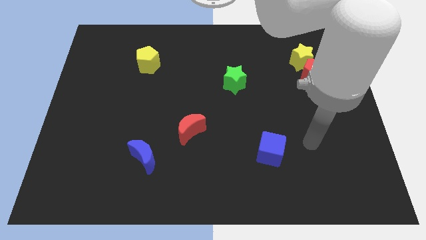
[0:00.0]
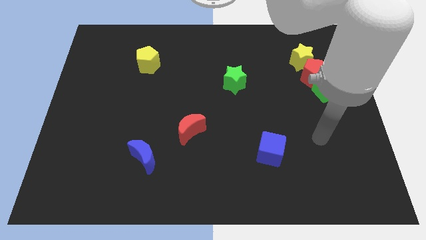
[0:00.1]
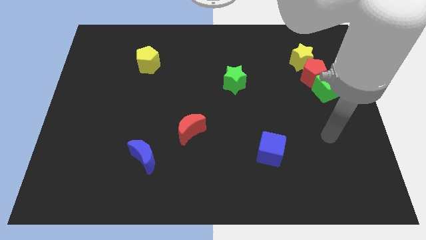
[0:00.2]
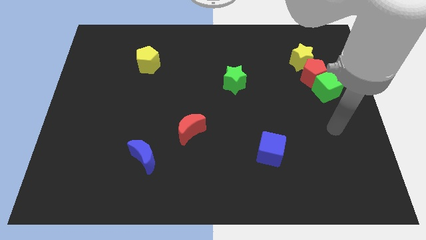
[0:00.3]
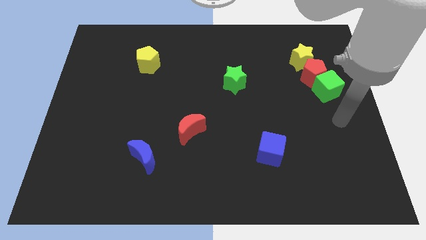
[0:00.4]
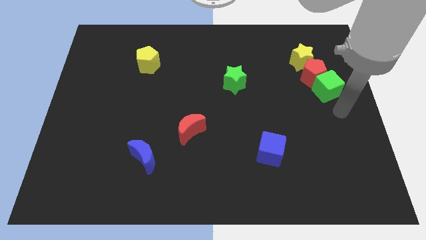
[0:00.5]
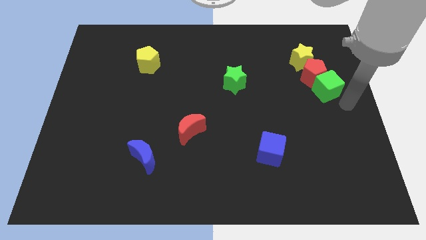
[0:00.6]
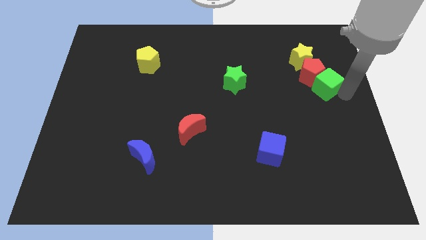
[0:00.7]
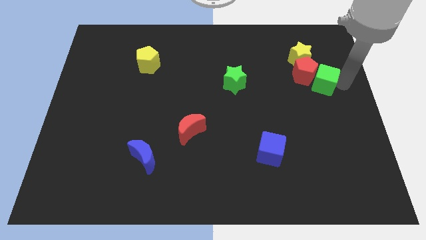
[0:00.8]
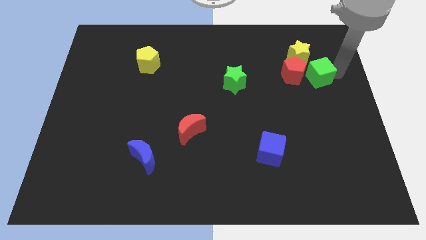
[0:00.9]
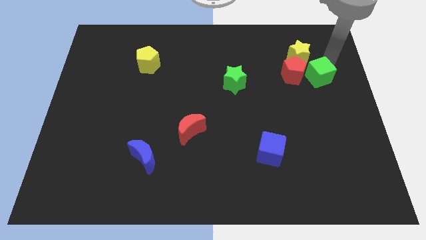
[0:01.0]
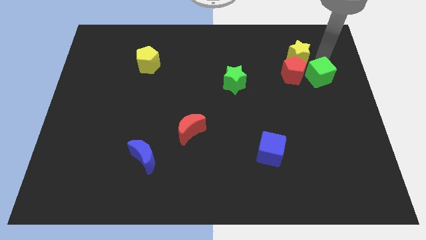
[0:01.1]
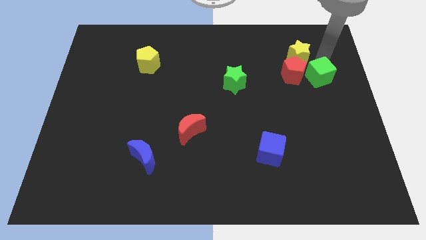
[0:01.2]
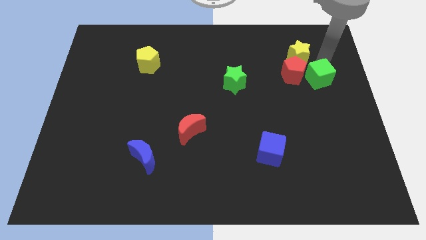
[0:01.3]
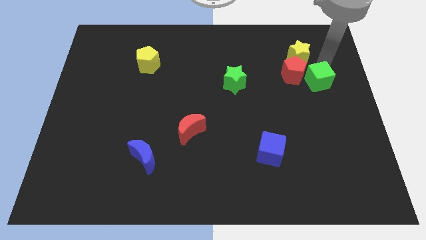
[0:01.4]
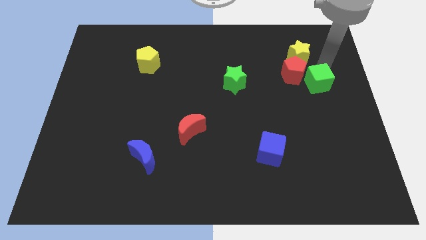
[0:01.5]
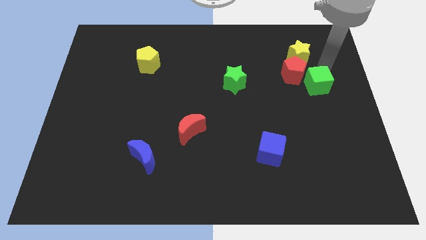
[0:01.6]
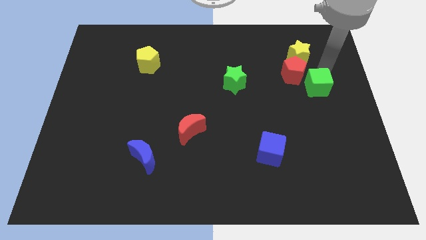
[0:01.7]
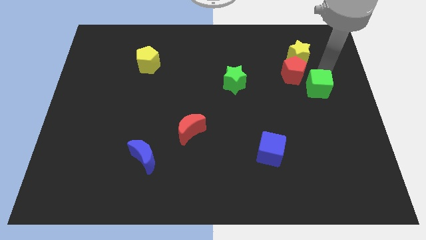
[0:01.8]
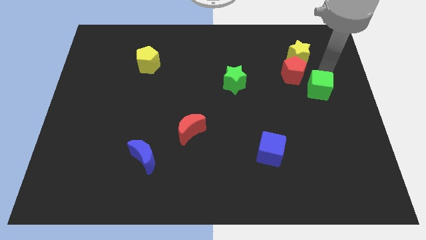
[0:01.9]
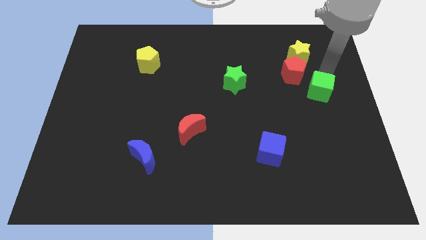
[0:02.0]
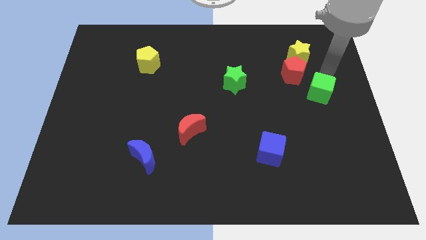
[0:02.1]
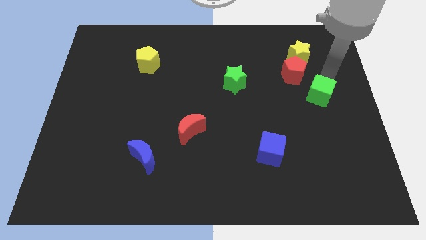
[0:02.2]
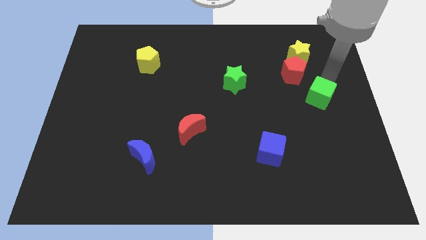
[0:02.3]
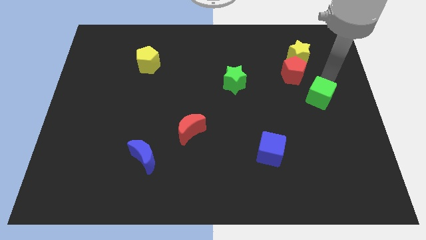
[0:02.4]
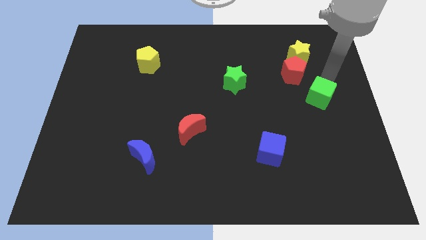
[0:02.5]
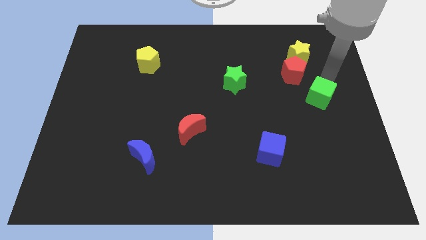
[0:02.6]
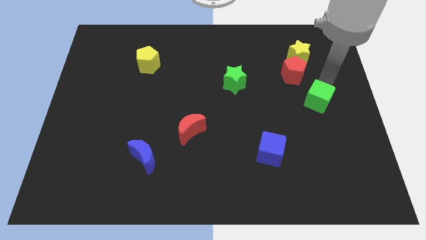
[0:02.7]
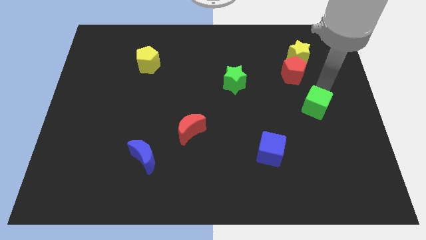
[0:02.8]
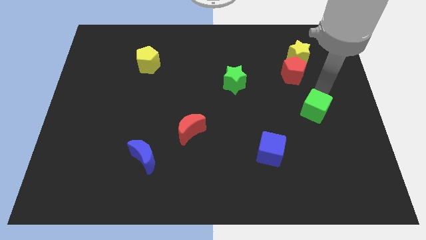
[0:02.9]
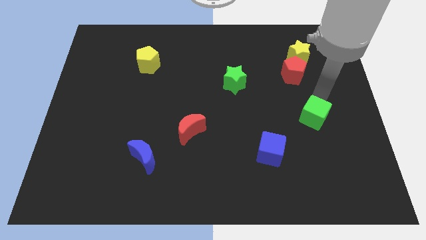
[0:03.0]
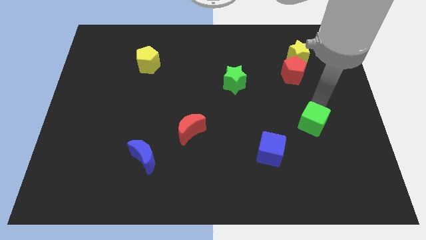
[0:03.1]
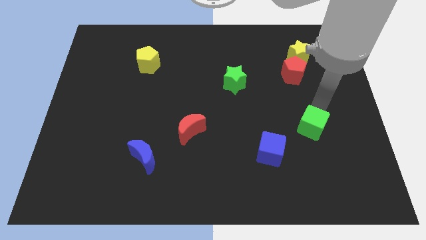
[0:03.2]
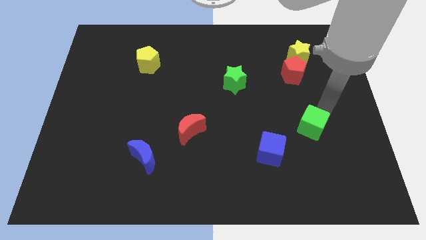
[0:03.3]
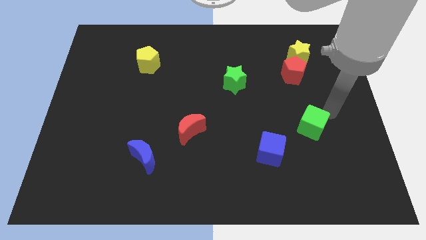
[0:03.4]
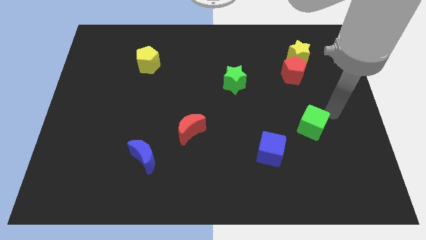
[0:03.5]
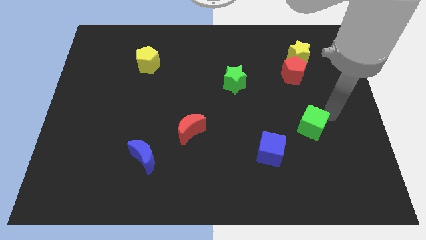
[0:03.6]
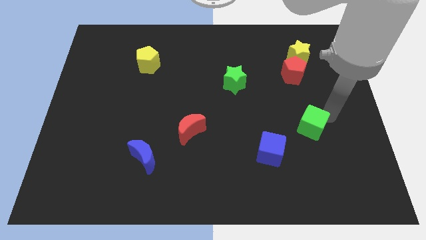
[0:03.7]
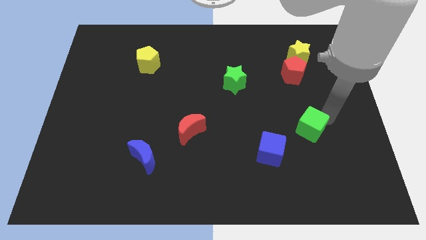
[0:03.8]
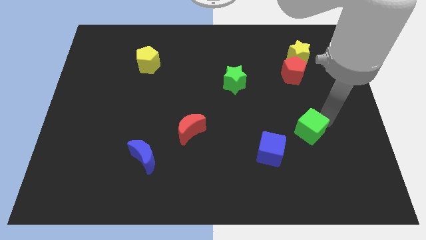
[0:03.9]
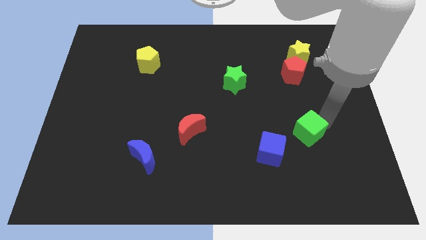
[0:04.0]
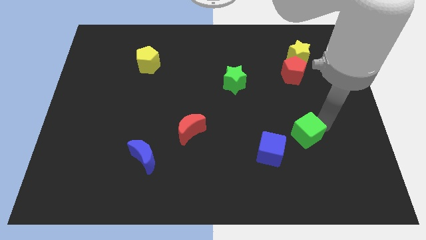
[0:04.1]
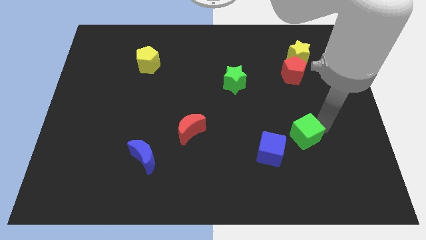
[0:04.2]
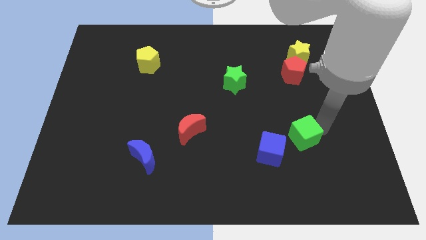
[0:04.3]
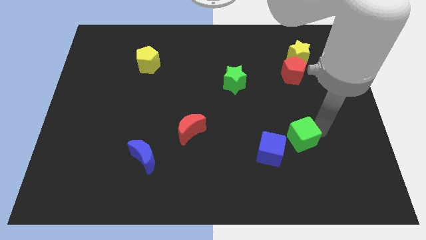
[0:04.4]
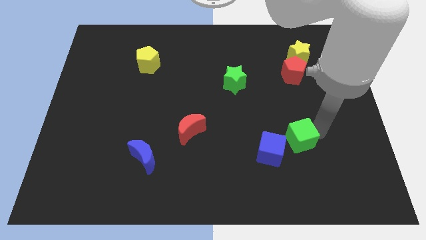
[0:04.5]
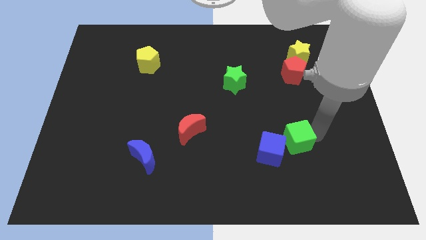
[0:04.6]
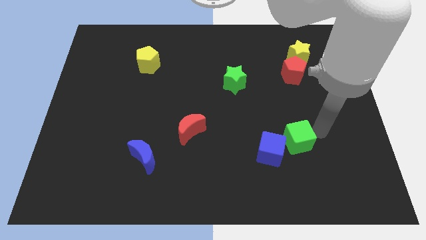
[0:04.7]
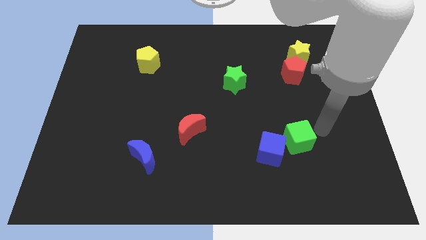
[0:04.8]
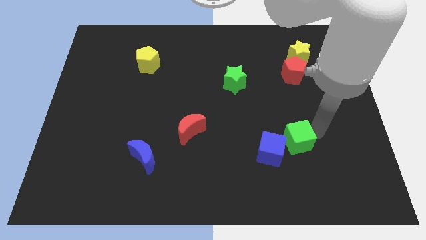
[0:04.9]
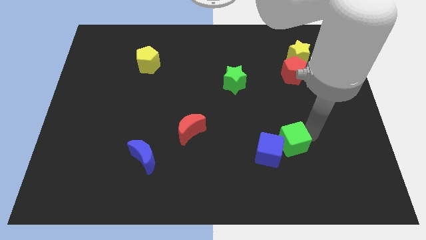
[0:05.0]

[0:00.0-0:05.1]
slide the green cube to the blue cube

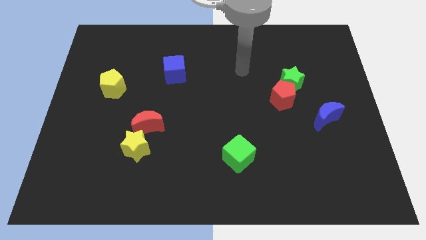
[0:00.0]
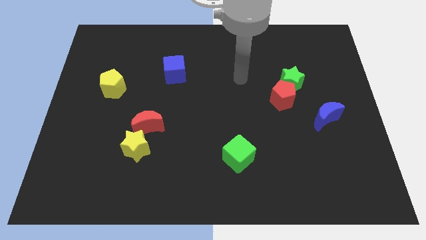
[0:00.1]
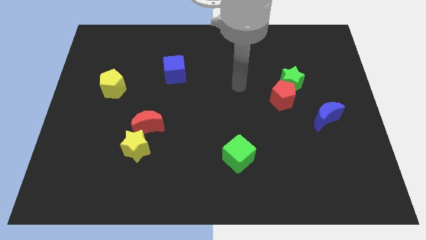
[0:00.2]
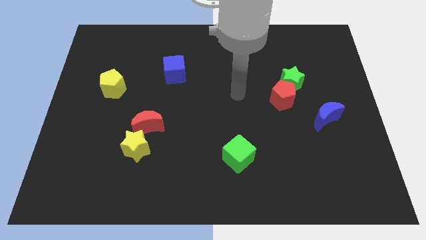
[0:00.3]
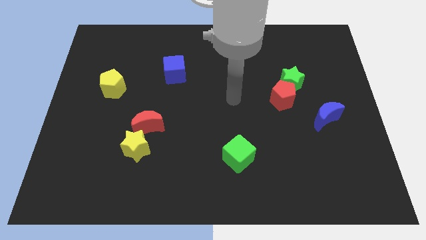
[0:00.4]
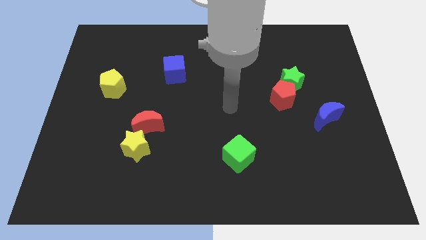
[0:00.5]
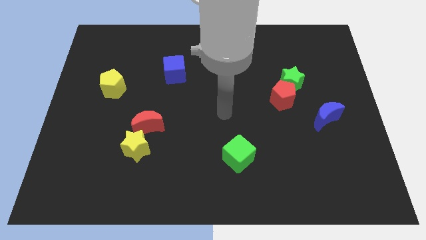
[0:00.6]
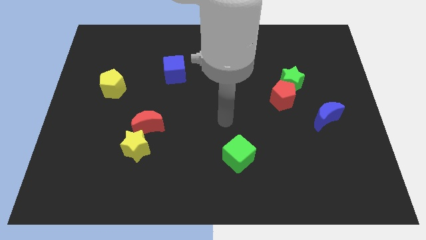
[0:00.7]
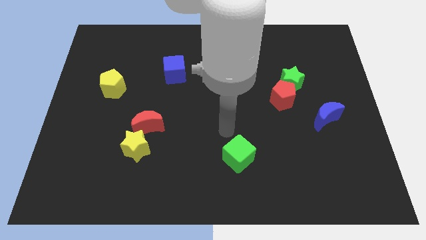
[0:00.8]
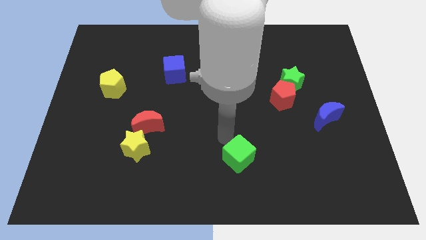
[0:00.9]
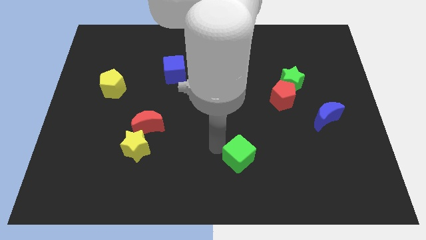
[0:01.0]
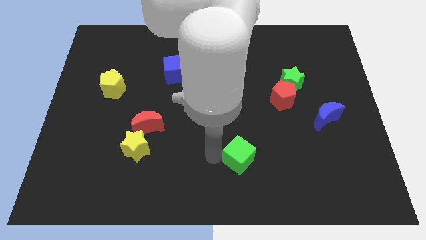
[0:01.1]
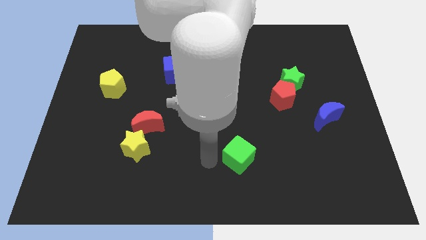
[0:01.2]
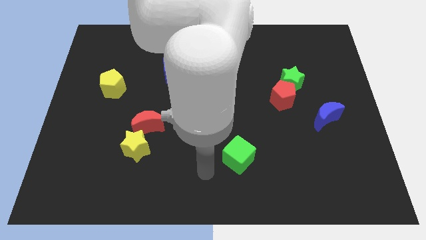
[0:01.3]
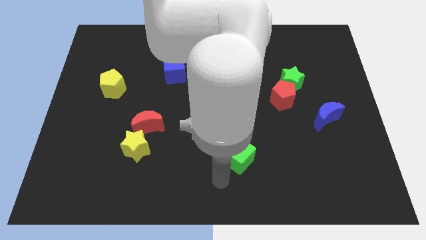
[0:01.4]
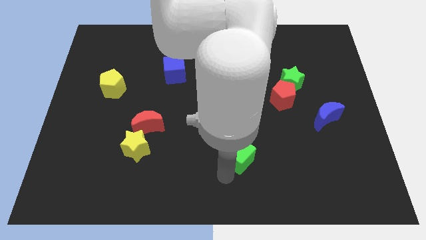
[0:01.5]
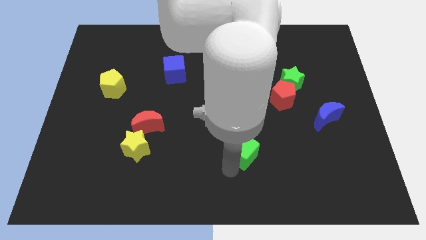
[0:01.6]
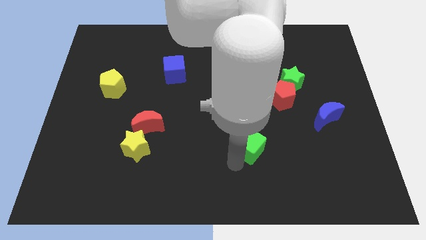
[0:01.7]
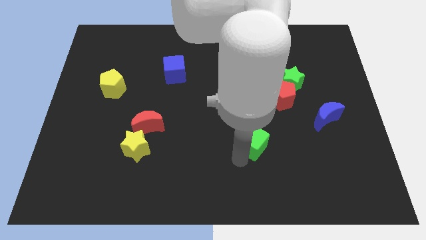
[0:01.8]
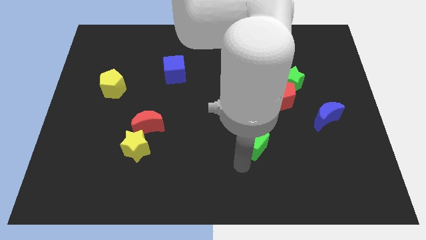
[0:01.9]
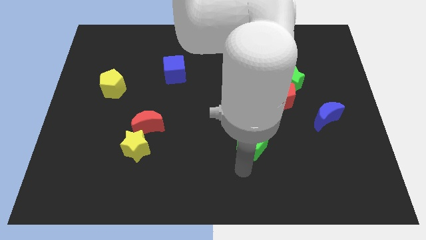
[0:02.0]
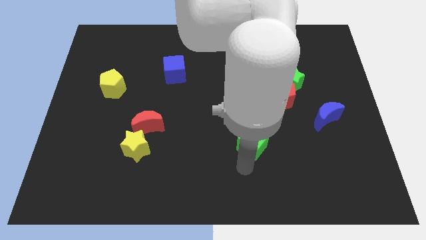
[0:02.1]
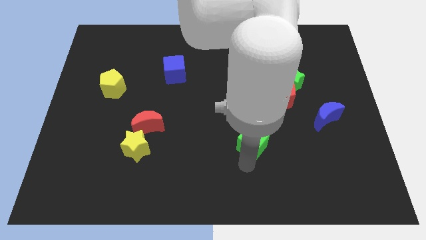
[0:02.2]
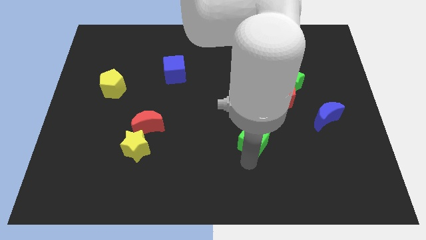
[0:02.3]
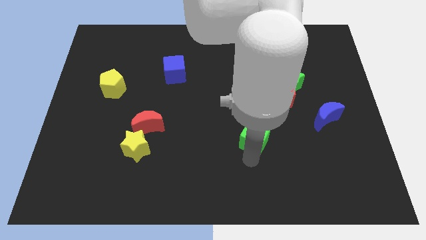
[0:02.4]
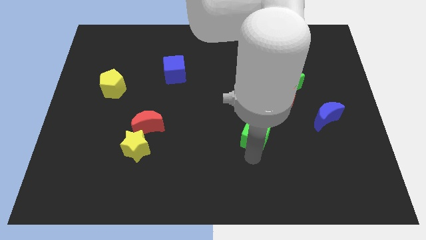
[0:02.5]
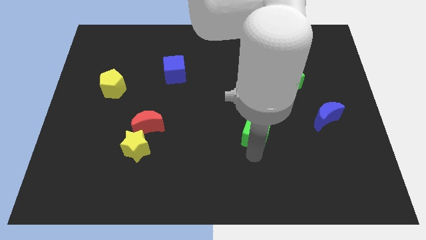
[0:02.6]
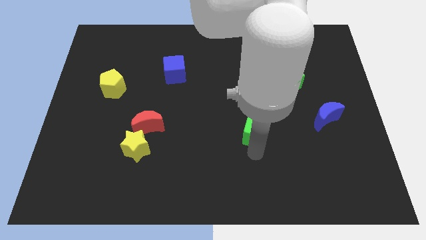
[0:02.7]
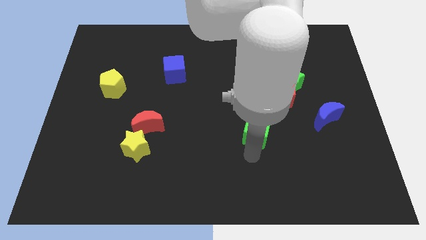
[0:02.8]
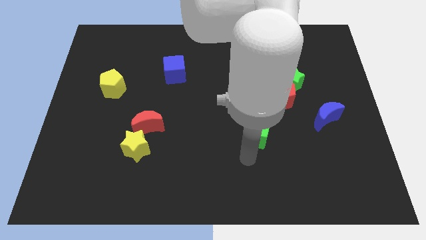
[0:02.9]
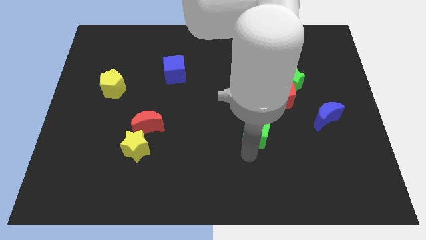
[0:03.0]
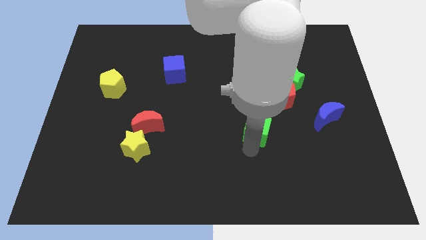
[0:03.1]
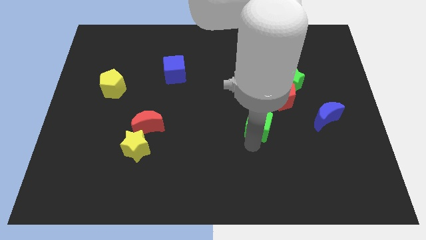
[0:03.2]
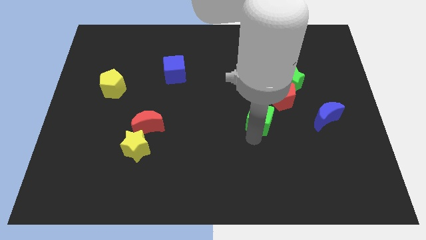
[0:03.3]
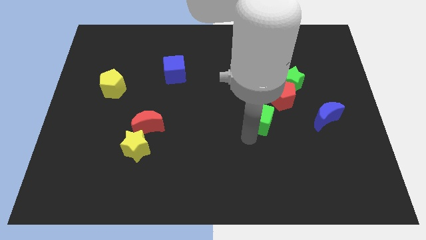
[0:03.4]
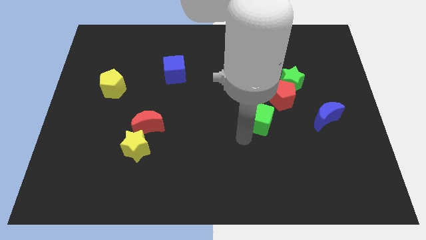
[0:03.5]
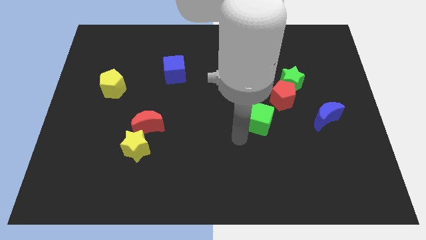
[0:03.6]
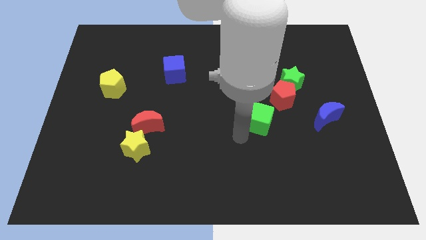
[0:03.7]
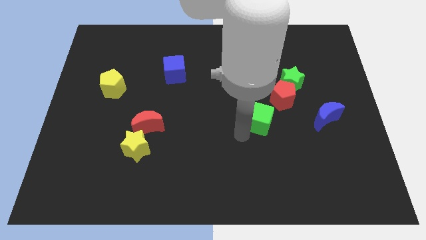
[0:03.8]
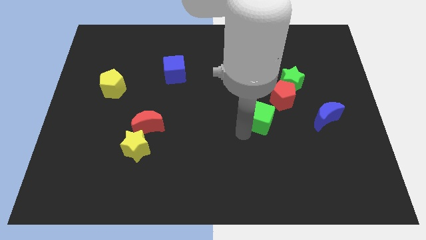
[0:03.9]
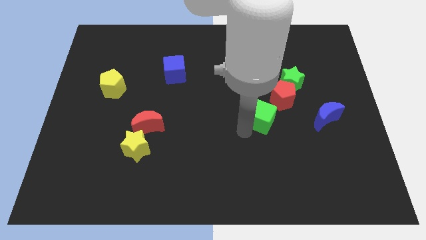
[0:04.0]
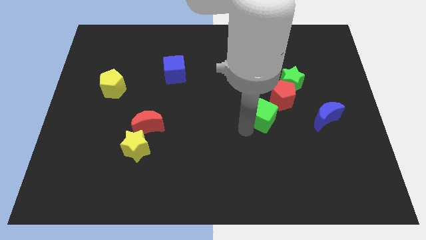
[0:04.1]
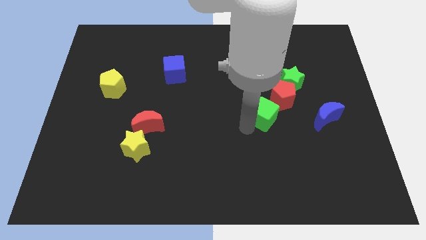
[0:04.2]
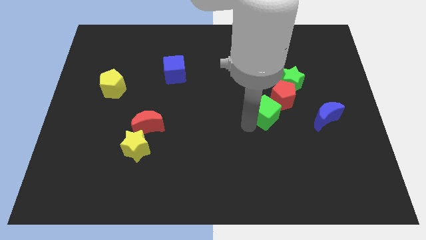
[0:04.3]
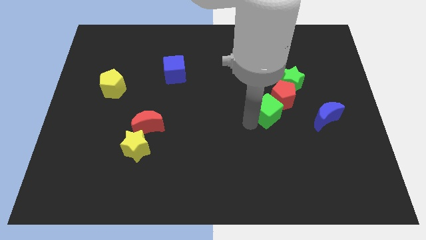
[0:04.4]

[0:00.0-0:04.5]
move the green cube to the red pentagon
